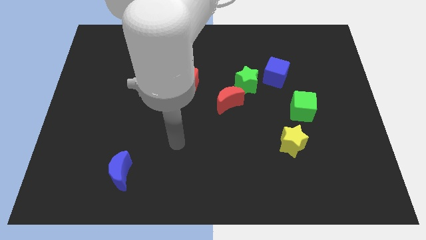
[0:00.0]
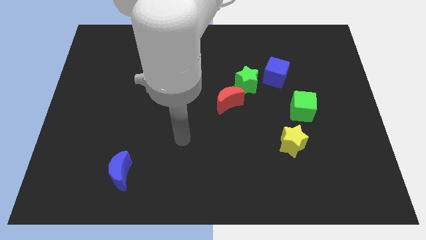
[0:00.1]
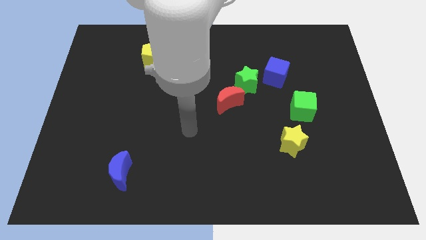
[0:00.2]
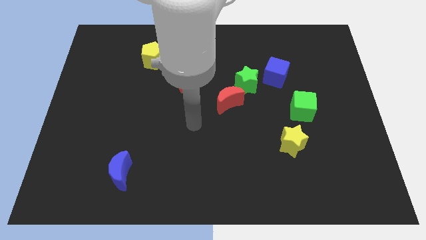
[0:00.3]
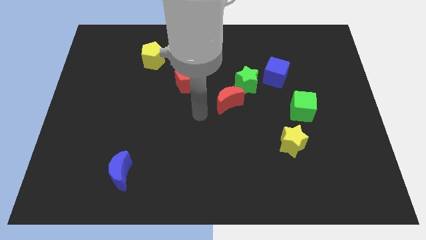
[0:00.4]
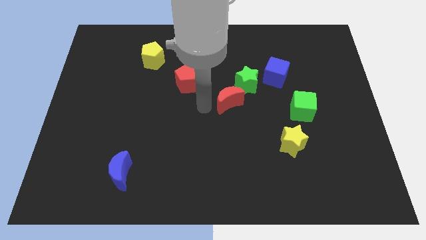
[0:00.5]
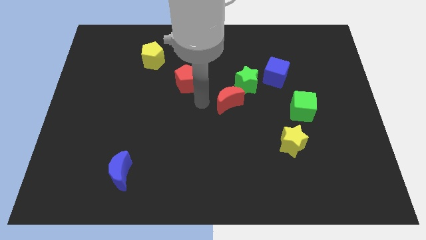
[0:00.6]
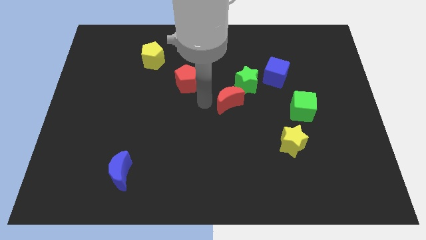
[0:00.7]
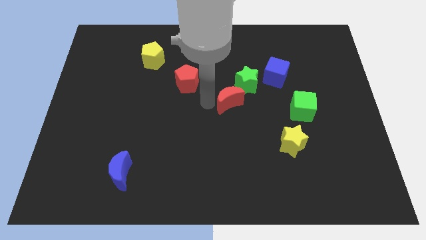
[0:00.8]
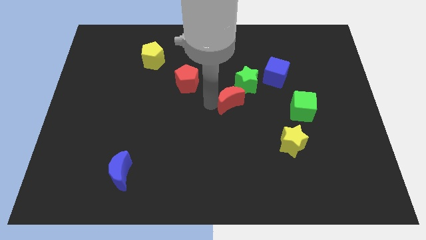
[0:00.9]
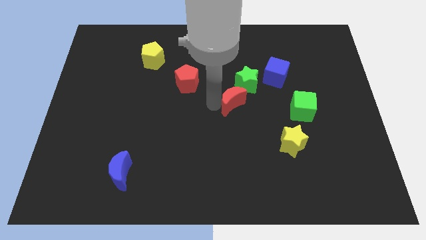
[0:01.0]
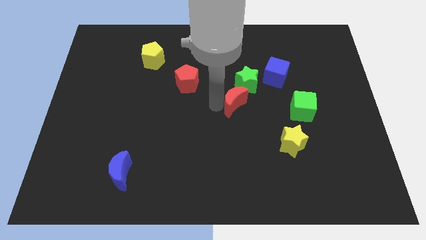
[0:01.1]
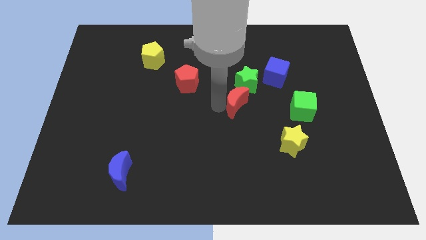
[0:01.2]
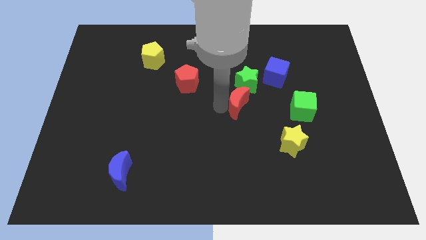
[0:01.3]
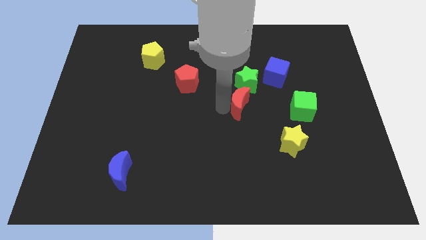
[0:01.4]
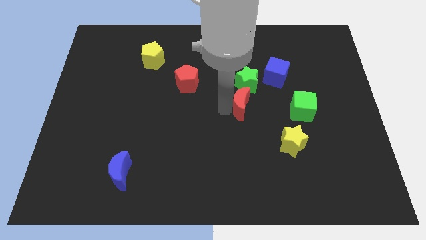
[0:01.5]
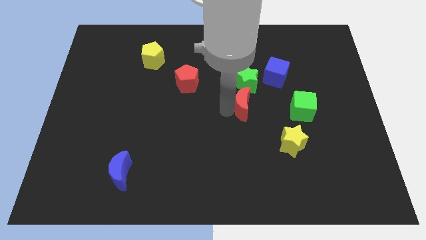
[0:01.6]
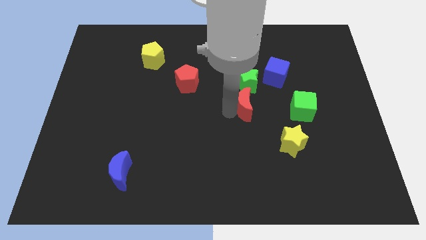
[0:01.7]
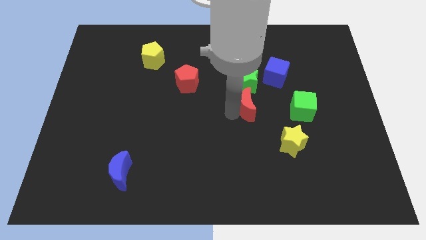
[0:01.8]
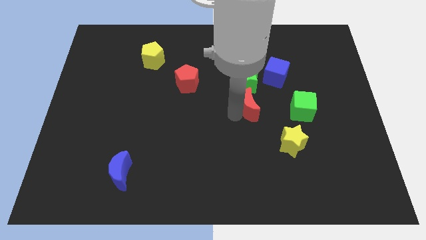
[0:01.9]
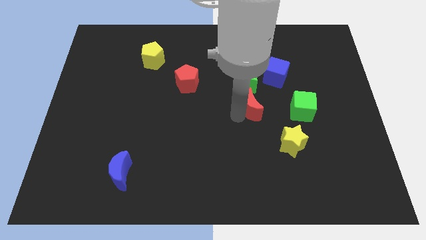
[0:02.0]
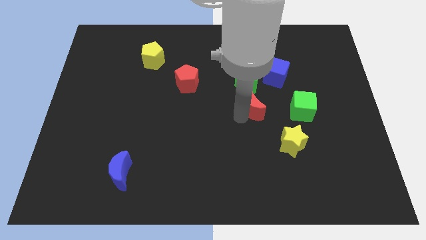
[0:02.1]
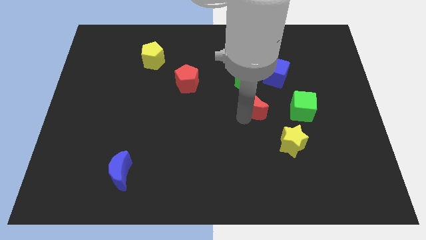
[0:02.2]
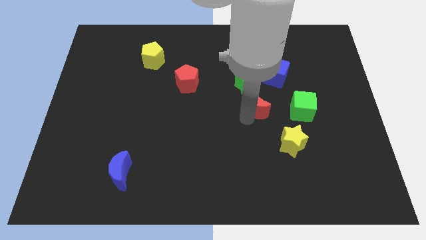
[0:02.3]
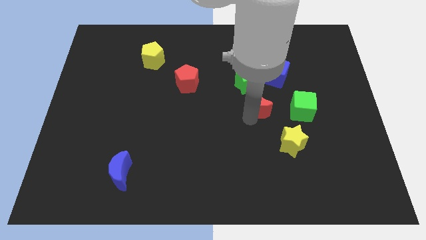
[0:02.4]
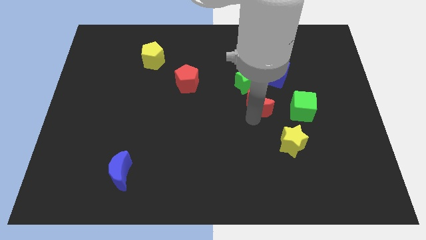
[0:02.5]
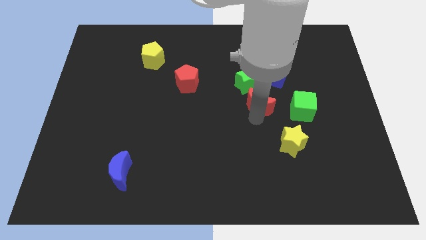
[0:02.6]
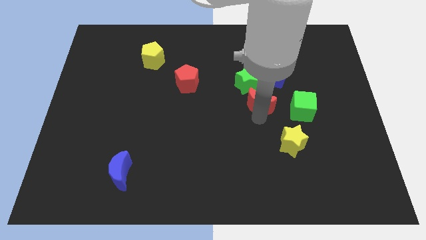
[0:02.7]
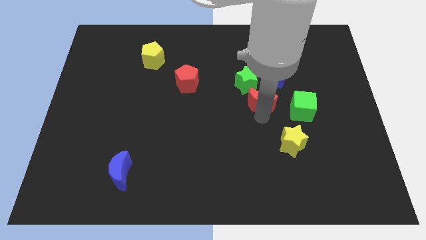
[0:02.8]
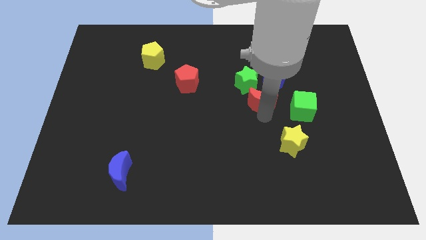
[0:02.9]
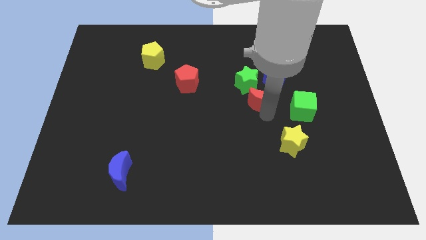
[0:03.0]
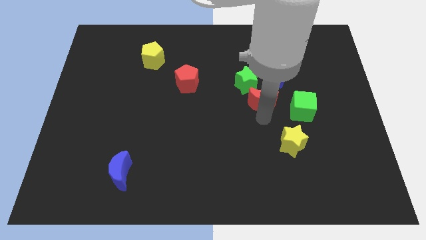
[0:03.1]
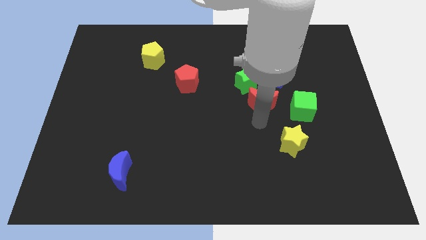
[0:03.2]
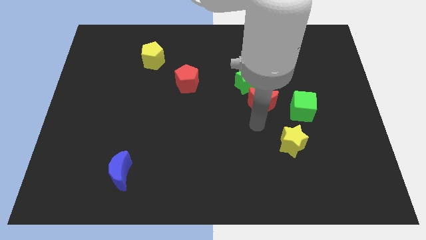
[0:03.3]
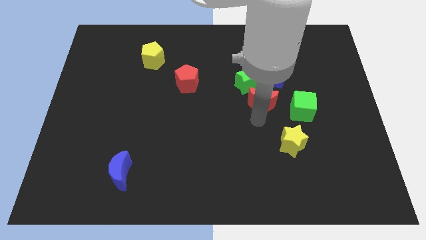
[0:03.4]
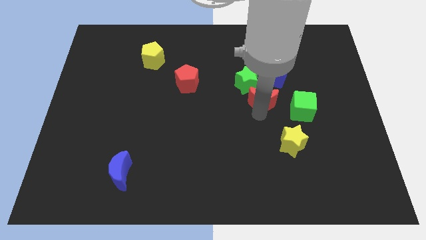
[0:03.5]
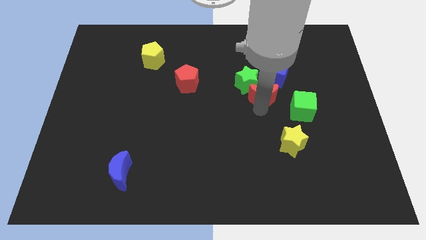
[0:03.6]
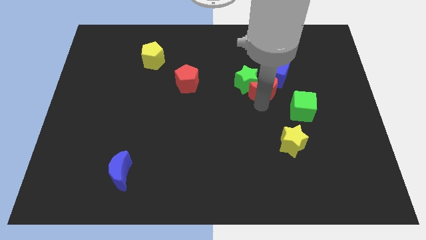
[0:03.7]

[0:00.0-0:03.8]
slide the red moon diagonally upwards and right somewhat

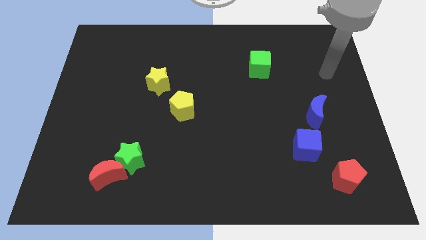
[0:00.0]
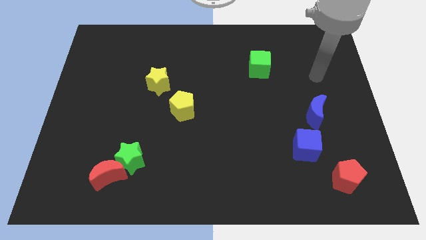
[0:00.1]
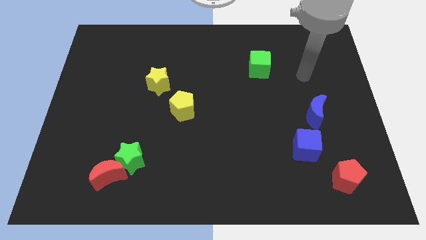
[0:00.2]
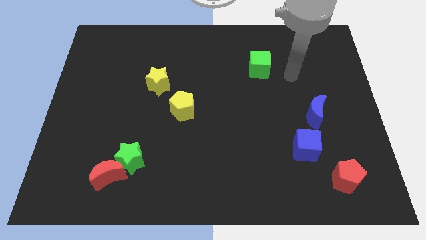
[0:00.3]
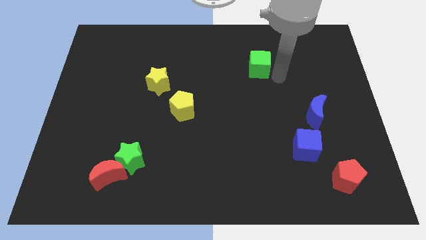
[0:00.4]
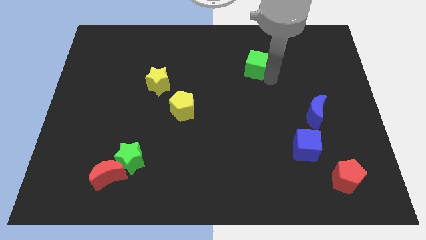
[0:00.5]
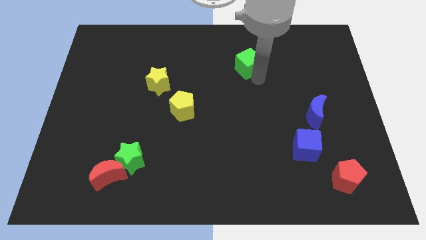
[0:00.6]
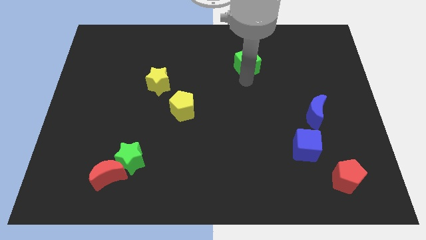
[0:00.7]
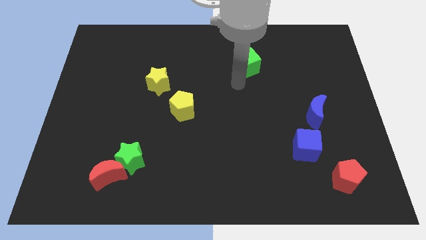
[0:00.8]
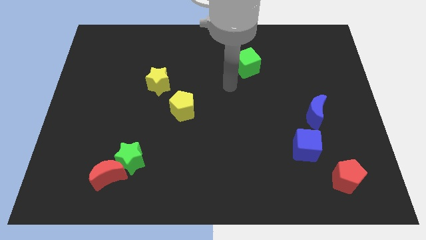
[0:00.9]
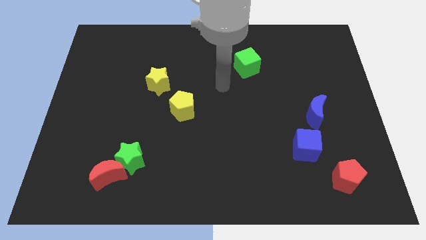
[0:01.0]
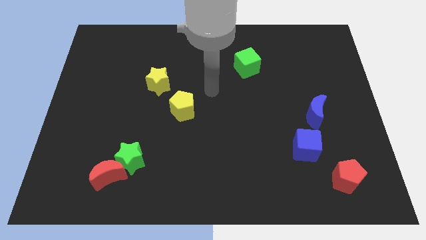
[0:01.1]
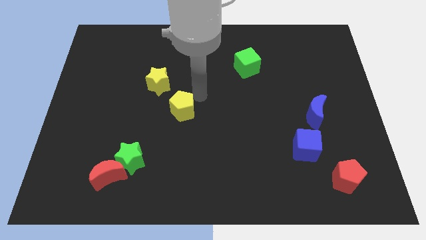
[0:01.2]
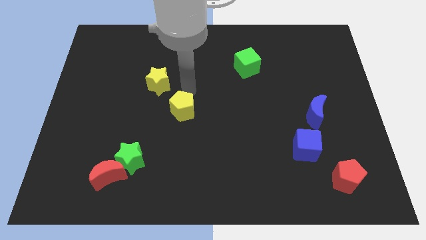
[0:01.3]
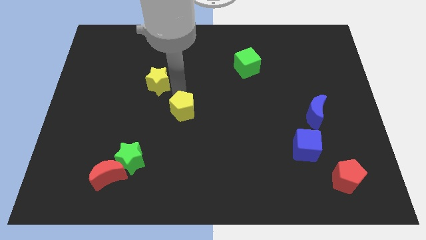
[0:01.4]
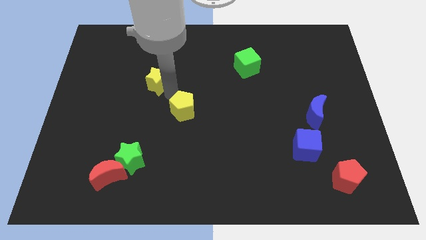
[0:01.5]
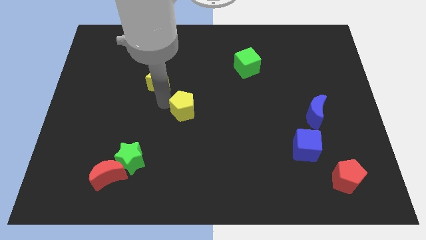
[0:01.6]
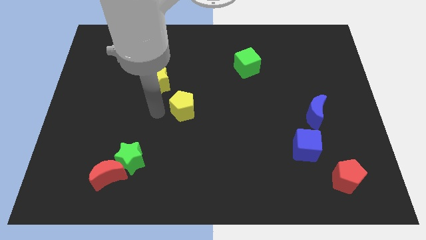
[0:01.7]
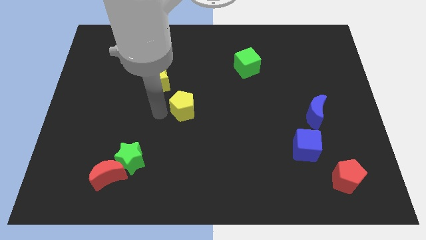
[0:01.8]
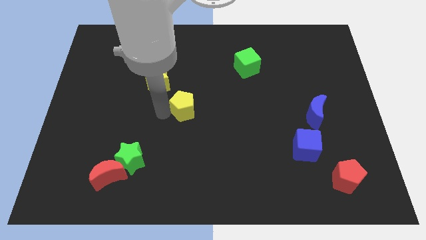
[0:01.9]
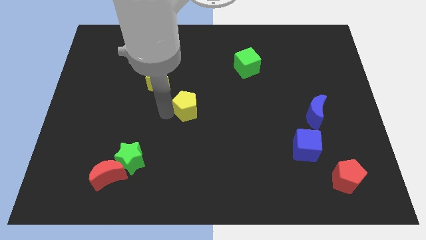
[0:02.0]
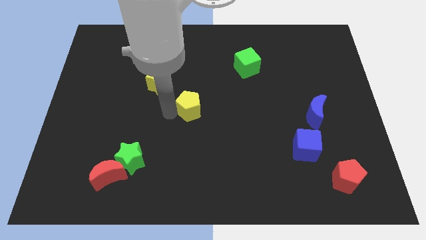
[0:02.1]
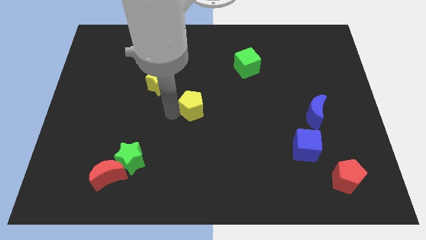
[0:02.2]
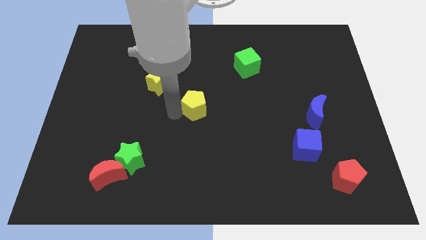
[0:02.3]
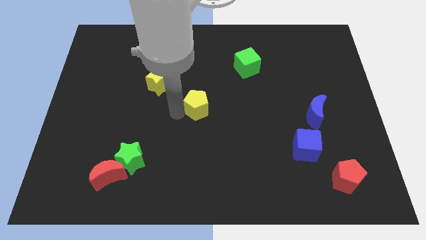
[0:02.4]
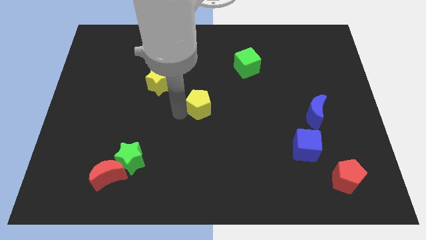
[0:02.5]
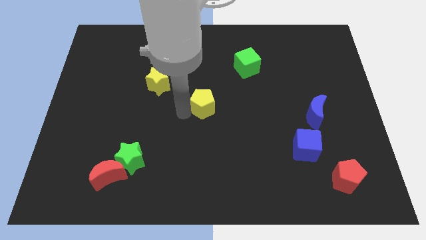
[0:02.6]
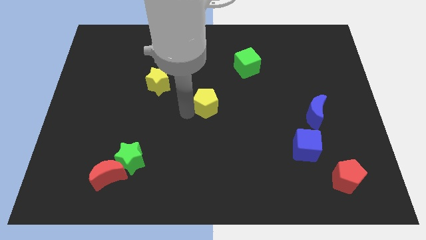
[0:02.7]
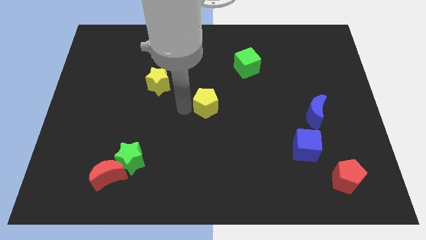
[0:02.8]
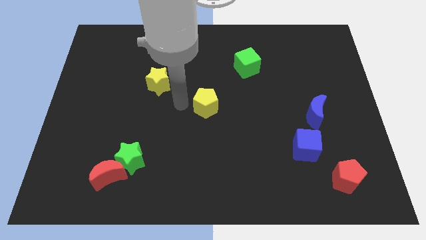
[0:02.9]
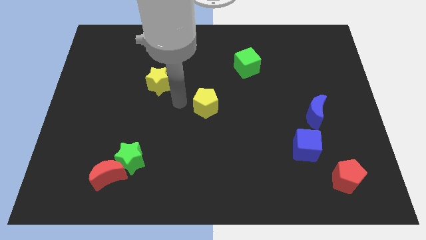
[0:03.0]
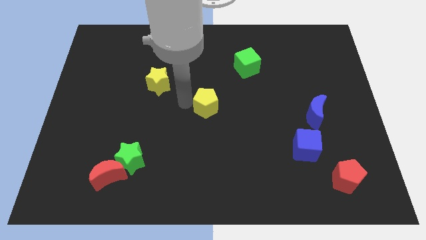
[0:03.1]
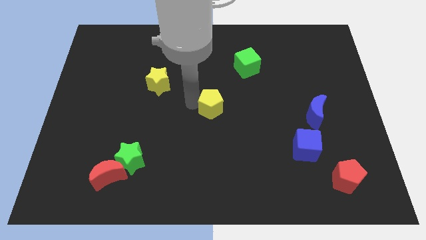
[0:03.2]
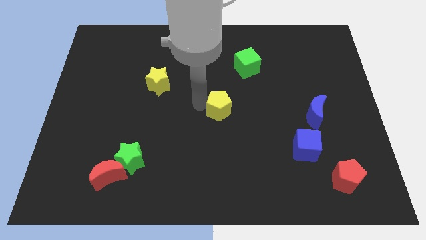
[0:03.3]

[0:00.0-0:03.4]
push the yellow pentagon to the right a bit

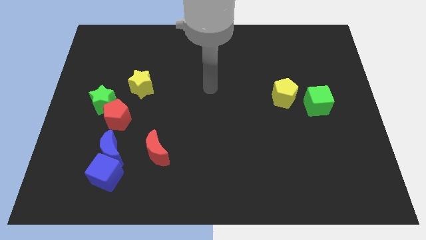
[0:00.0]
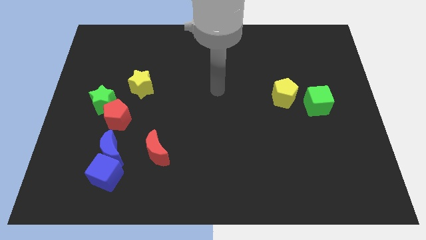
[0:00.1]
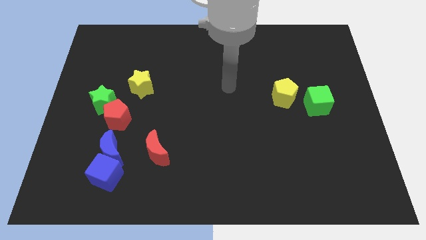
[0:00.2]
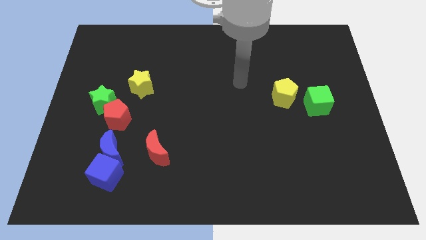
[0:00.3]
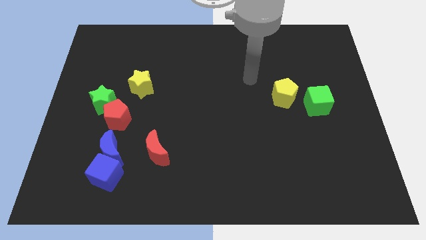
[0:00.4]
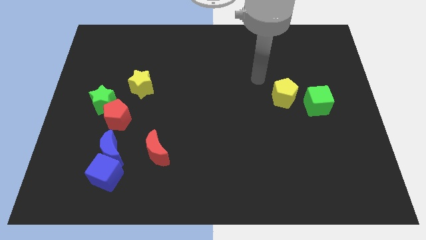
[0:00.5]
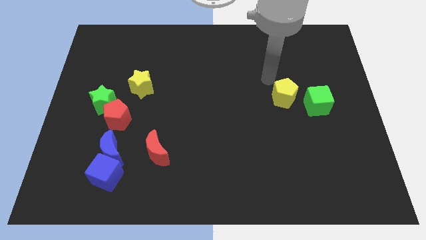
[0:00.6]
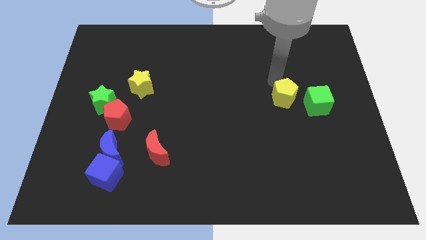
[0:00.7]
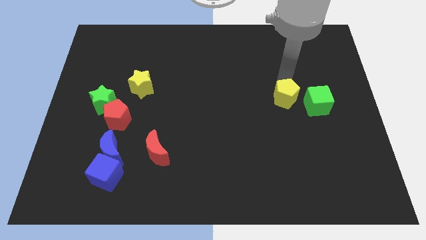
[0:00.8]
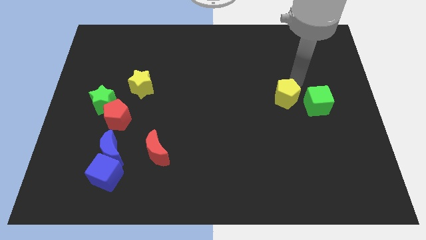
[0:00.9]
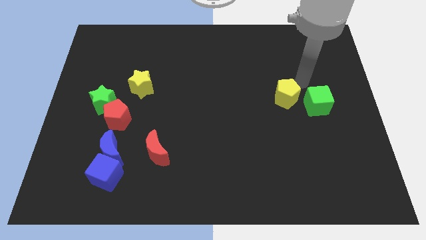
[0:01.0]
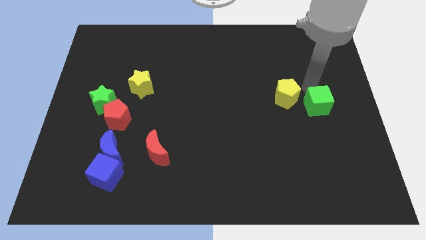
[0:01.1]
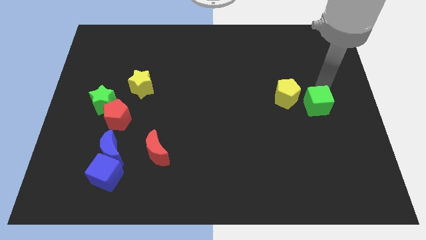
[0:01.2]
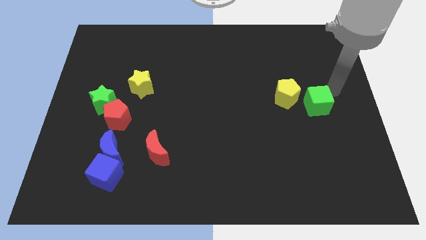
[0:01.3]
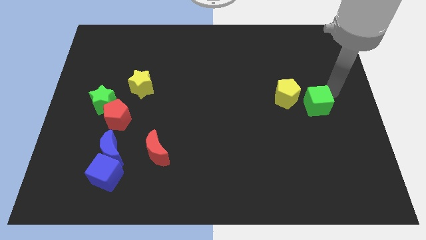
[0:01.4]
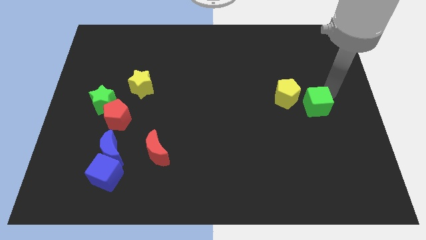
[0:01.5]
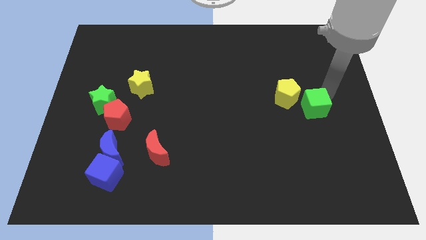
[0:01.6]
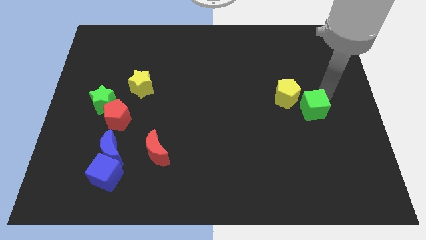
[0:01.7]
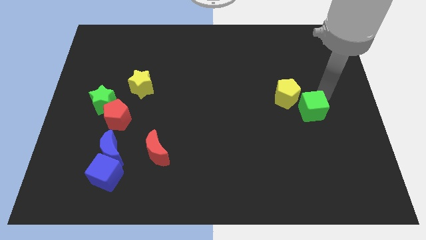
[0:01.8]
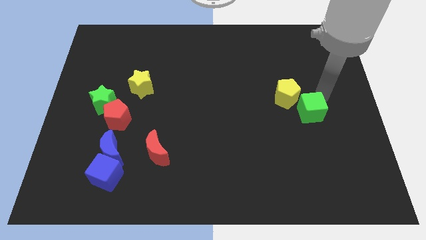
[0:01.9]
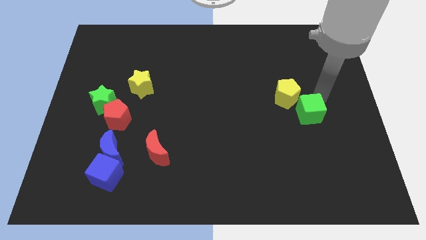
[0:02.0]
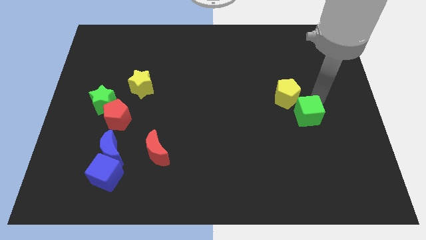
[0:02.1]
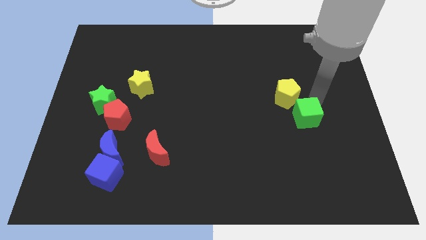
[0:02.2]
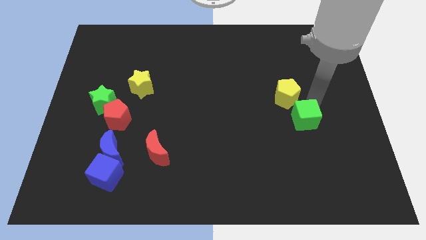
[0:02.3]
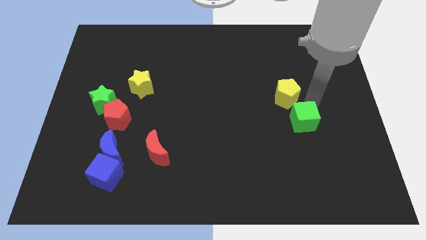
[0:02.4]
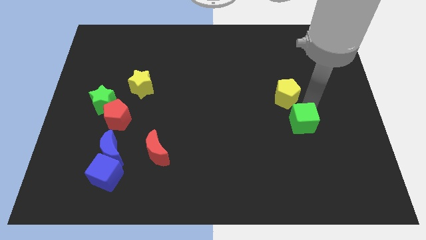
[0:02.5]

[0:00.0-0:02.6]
push the green cube diagonally down and to the left somewhat
